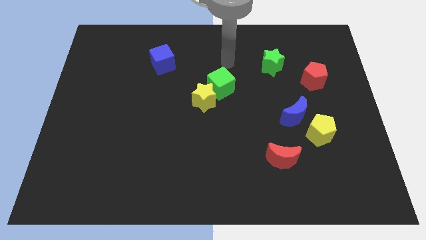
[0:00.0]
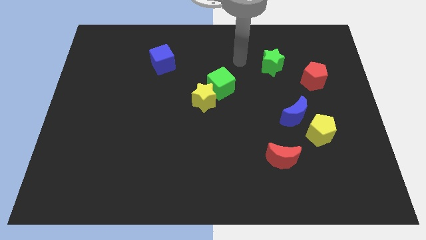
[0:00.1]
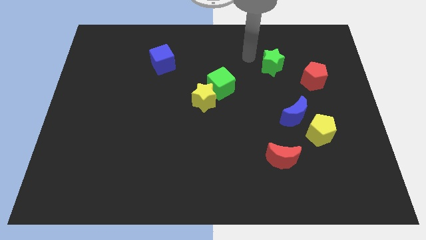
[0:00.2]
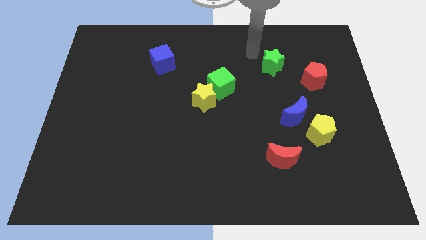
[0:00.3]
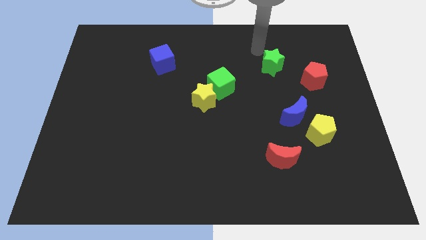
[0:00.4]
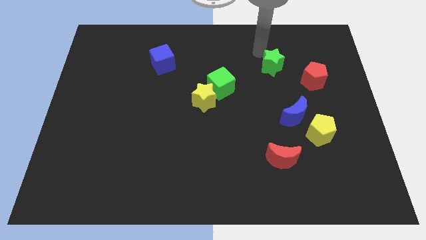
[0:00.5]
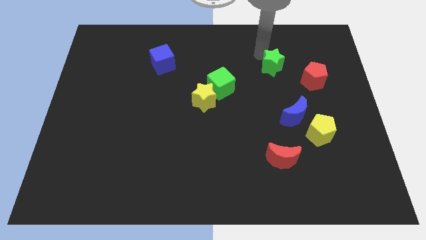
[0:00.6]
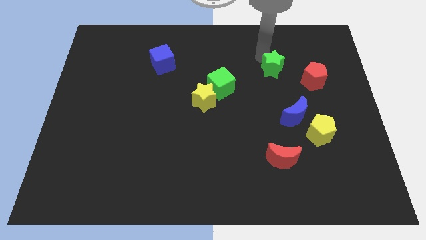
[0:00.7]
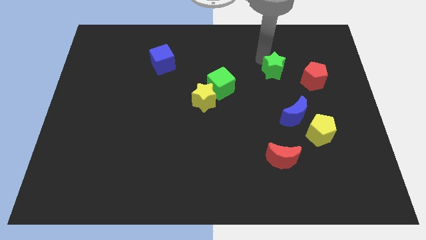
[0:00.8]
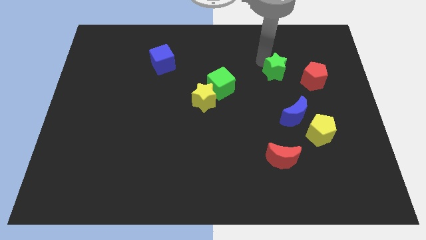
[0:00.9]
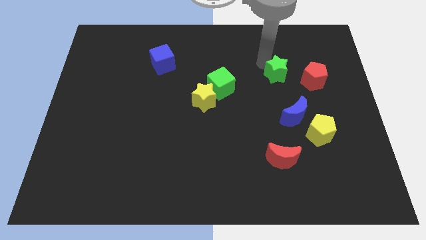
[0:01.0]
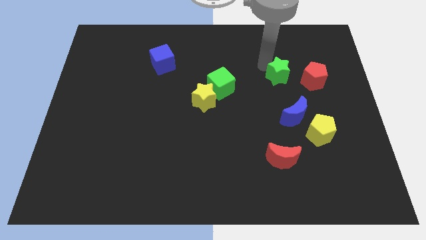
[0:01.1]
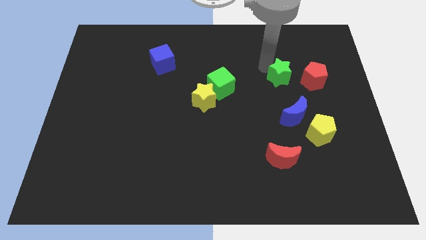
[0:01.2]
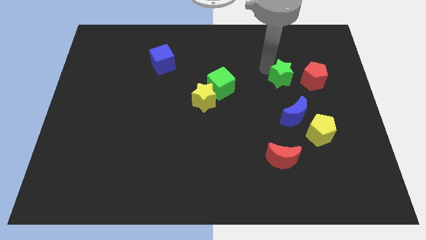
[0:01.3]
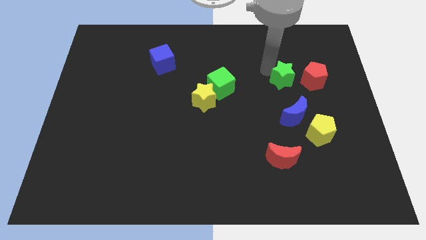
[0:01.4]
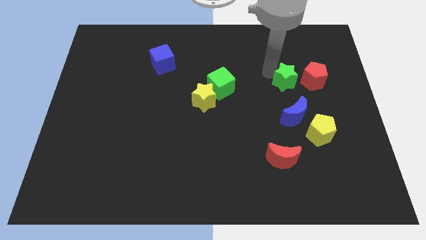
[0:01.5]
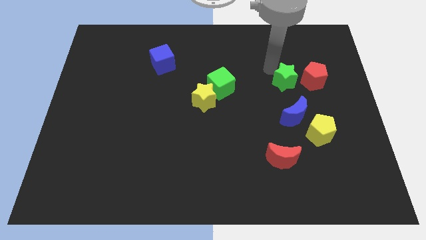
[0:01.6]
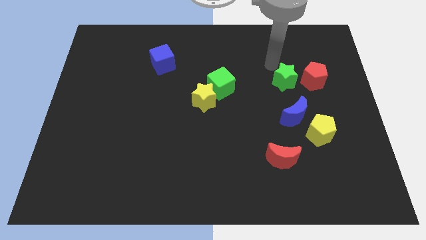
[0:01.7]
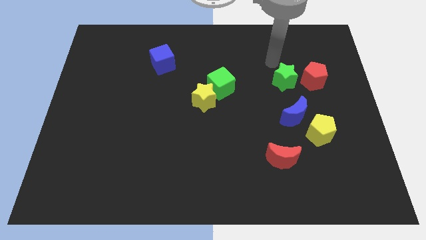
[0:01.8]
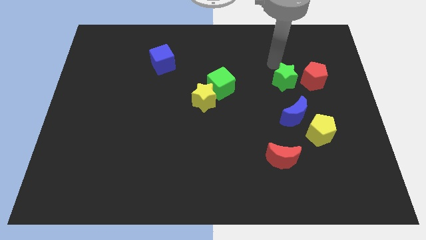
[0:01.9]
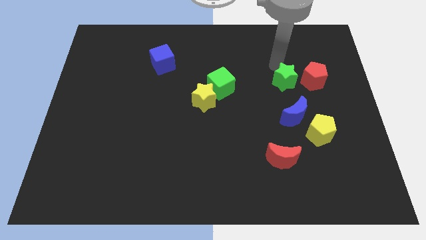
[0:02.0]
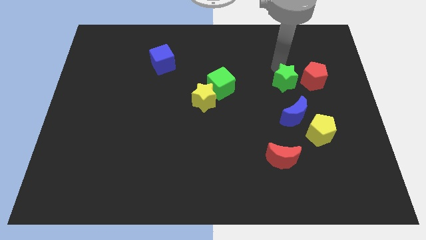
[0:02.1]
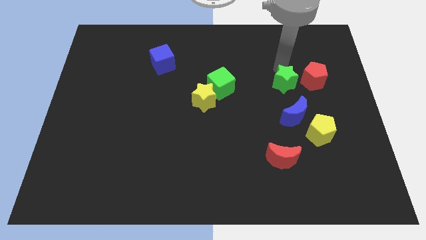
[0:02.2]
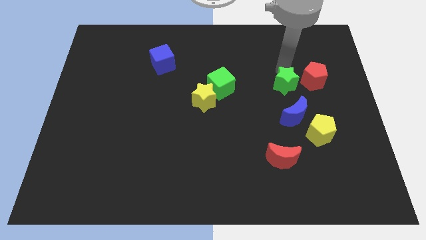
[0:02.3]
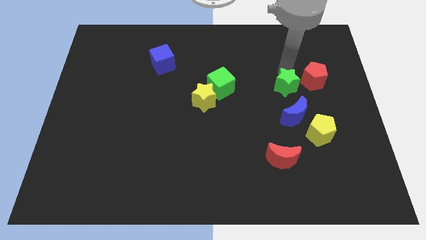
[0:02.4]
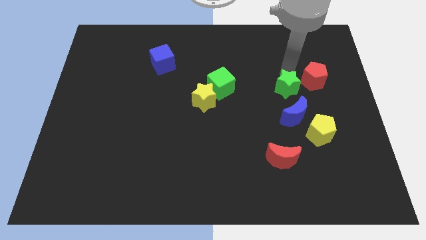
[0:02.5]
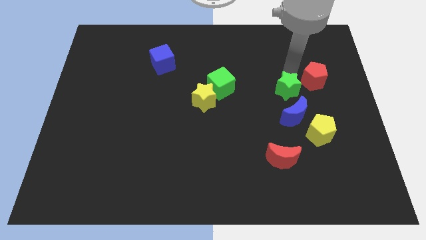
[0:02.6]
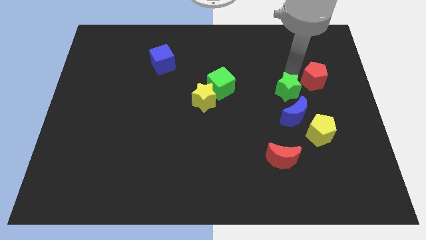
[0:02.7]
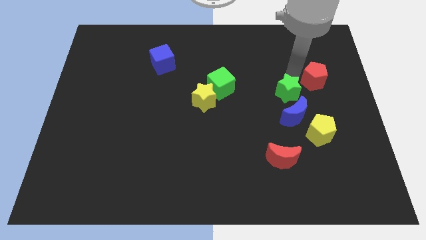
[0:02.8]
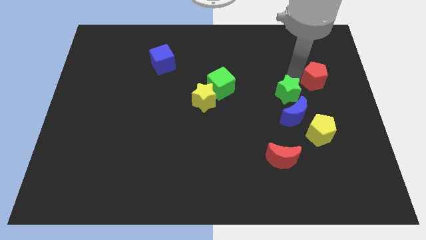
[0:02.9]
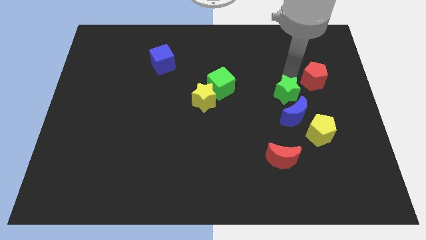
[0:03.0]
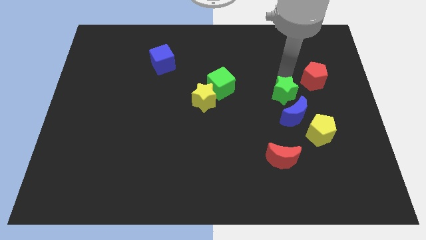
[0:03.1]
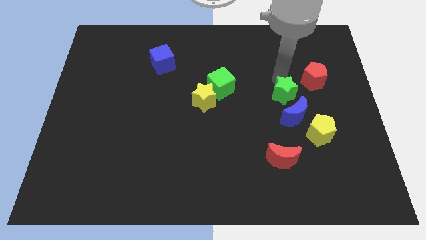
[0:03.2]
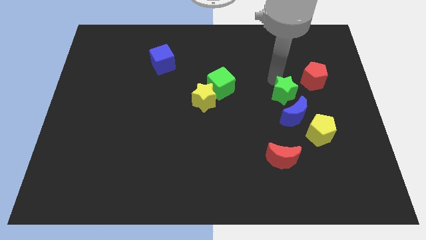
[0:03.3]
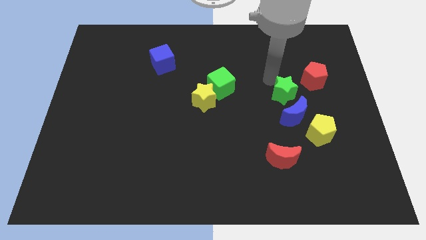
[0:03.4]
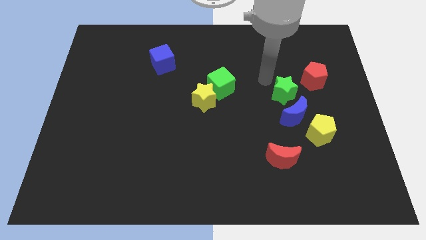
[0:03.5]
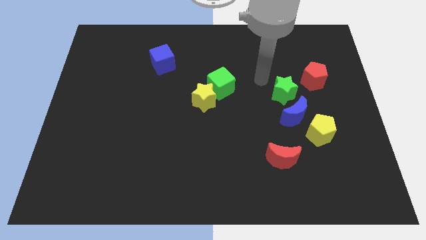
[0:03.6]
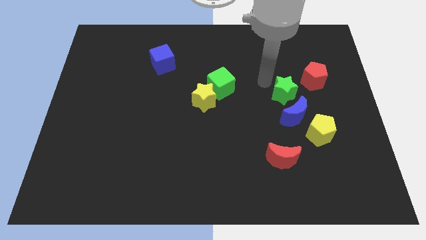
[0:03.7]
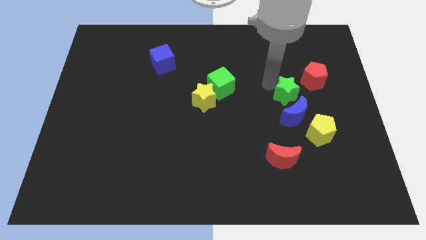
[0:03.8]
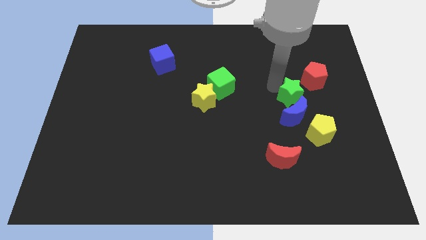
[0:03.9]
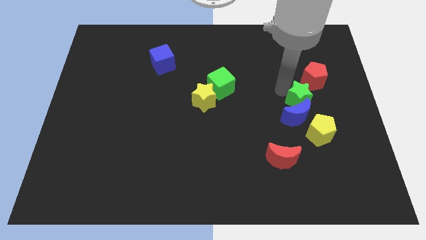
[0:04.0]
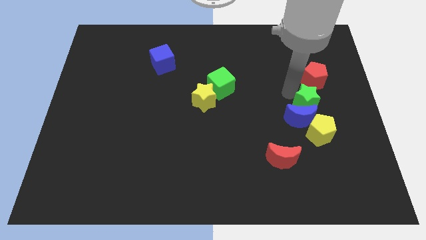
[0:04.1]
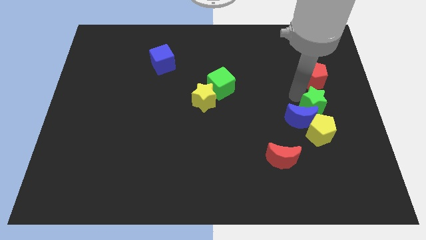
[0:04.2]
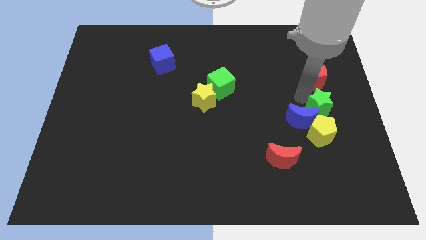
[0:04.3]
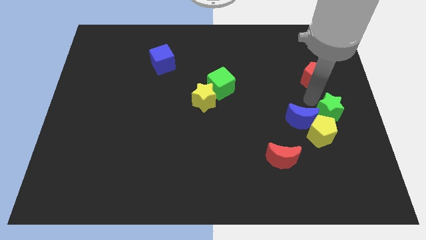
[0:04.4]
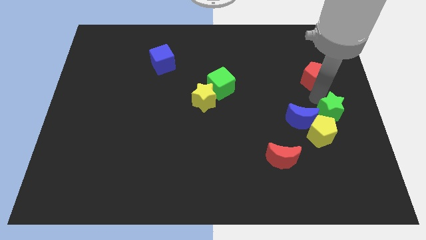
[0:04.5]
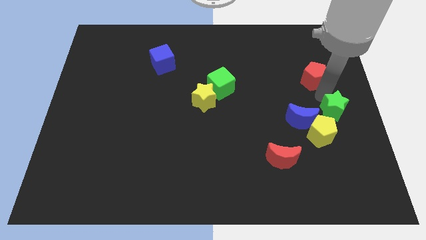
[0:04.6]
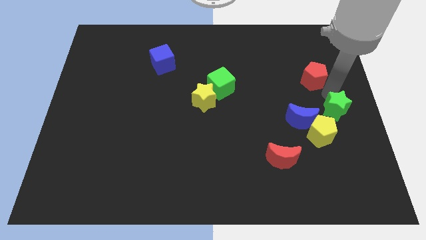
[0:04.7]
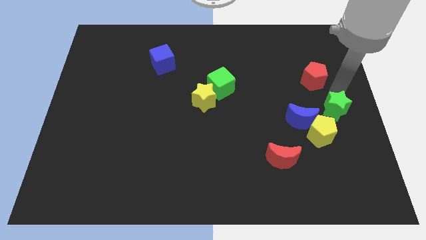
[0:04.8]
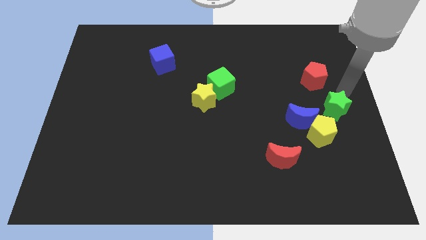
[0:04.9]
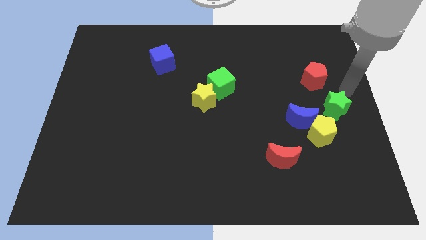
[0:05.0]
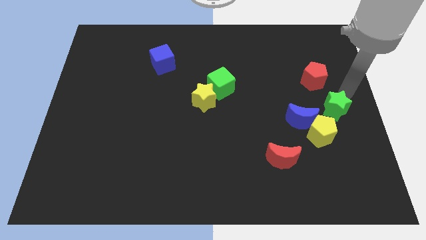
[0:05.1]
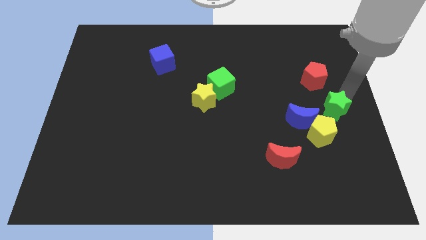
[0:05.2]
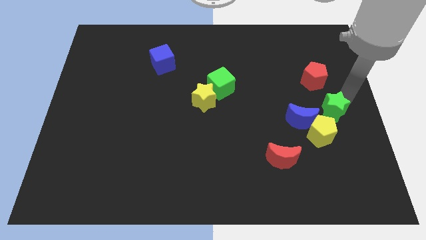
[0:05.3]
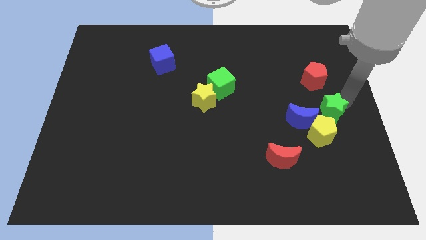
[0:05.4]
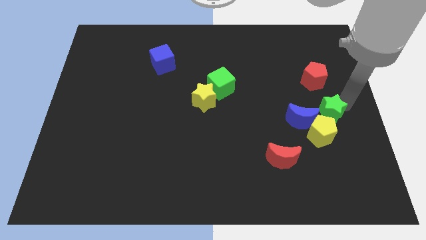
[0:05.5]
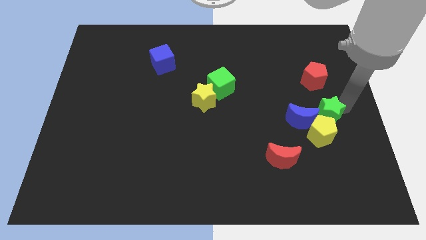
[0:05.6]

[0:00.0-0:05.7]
move the green star close to the yellow pentagon

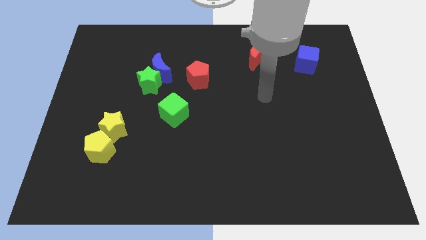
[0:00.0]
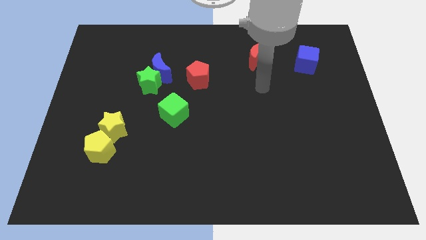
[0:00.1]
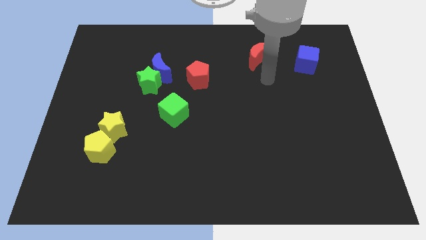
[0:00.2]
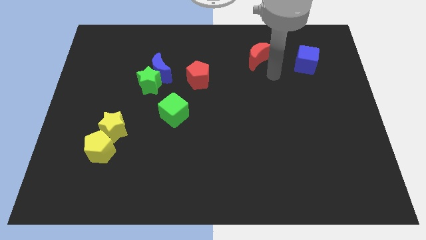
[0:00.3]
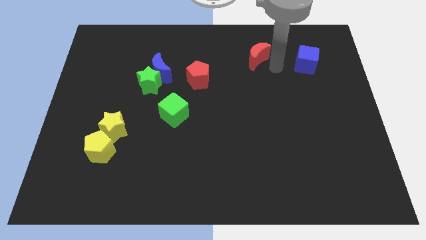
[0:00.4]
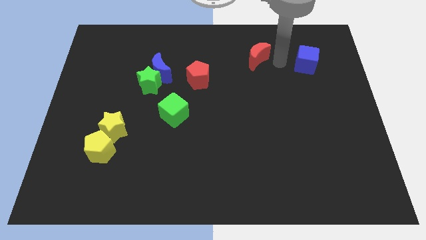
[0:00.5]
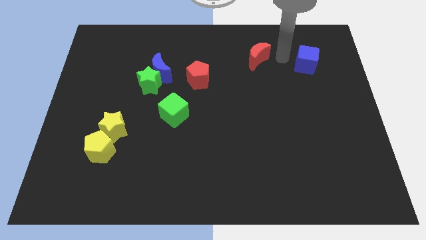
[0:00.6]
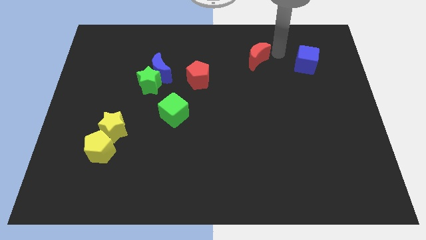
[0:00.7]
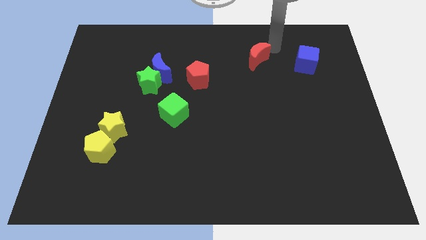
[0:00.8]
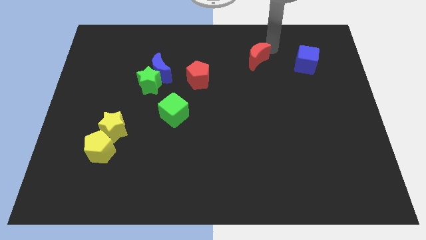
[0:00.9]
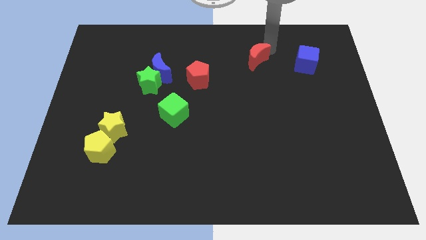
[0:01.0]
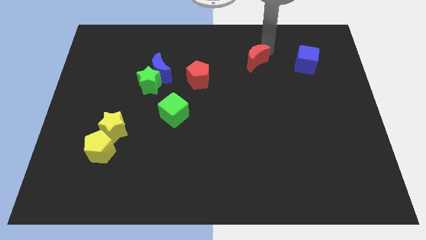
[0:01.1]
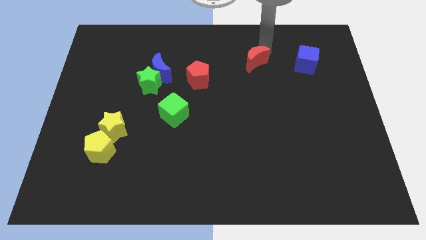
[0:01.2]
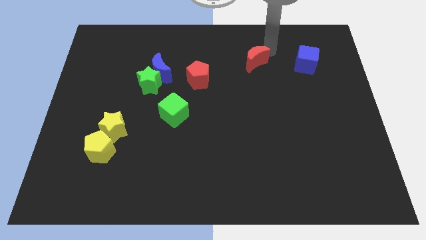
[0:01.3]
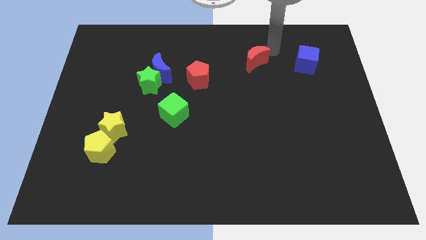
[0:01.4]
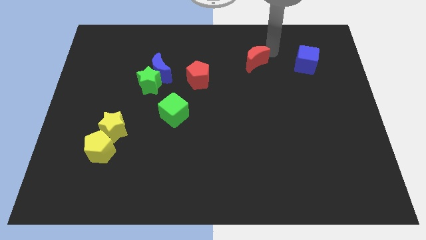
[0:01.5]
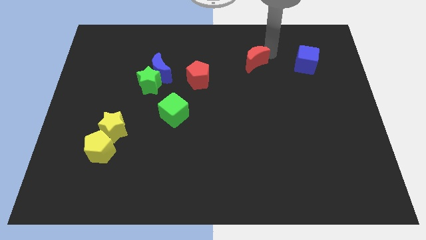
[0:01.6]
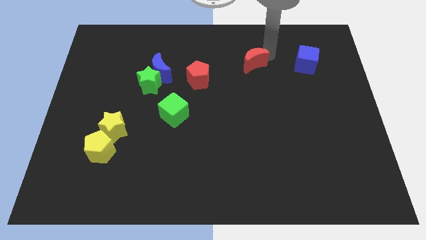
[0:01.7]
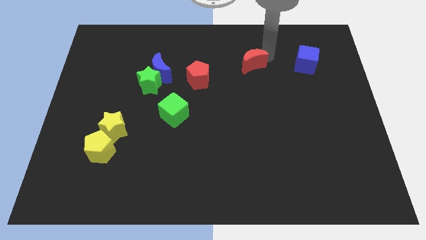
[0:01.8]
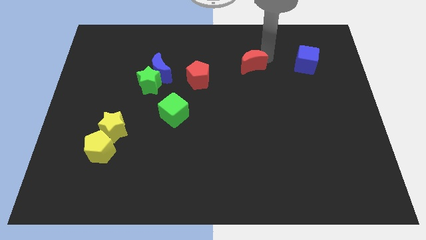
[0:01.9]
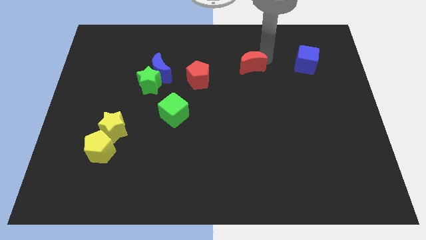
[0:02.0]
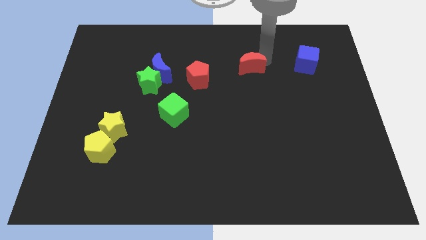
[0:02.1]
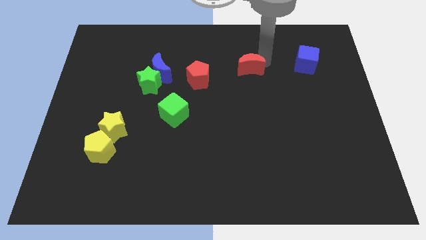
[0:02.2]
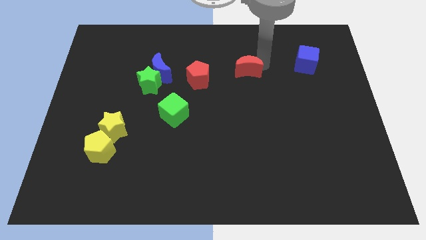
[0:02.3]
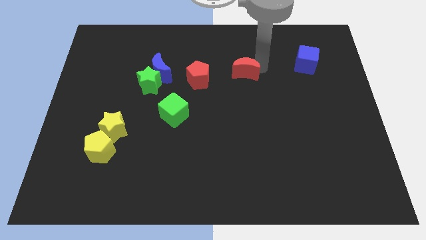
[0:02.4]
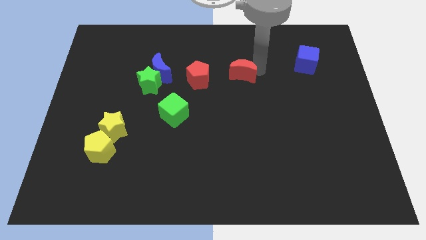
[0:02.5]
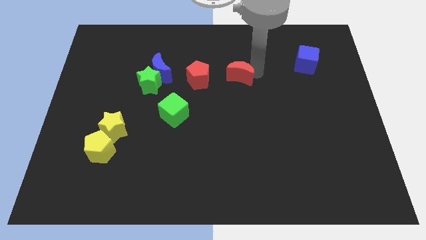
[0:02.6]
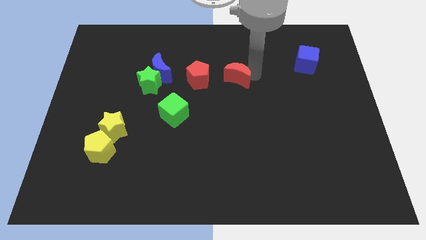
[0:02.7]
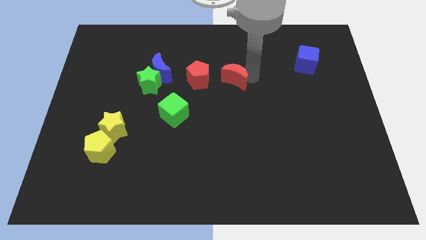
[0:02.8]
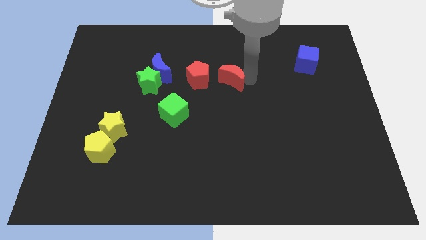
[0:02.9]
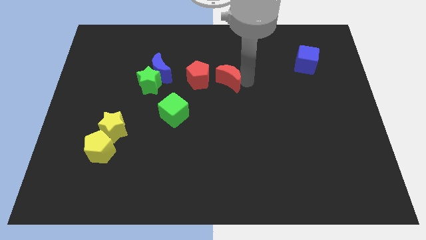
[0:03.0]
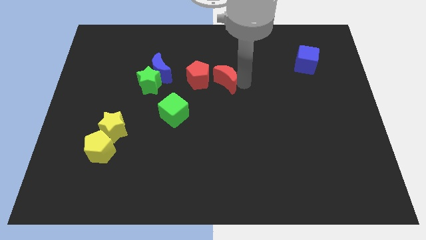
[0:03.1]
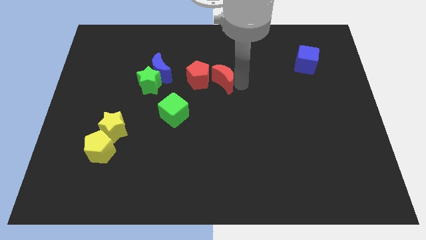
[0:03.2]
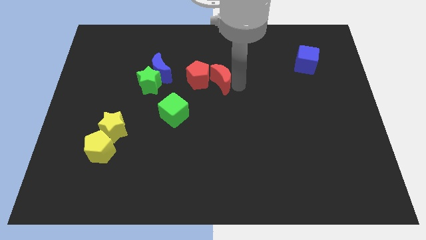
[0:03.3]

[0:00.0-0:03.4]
put the red moon next to the red pentagon
